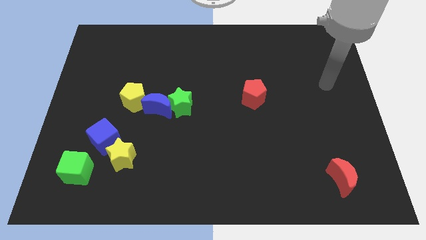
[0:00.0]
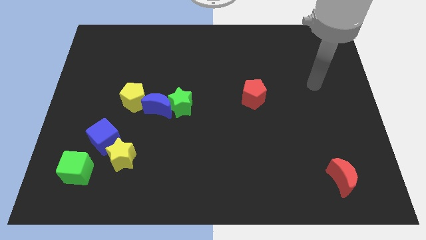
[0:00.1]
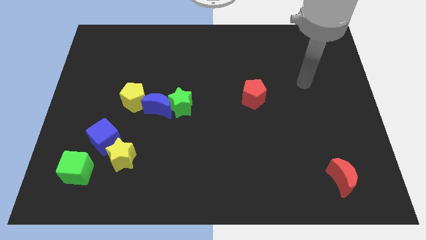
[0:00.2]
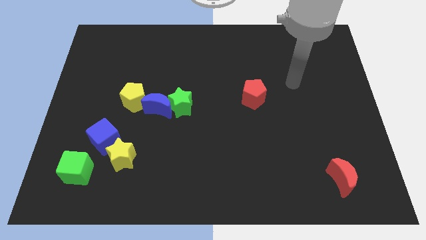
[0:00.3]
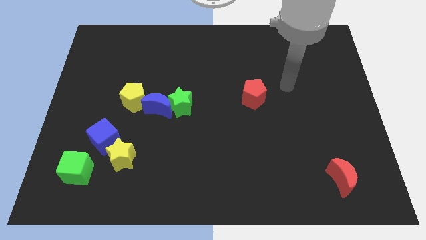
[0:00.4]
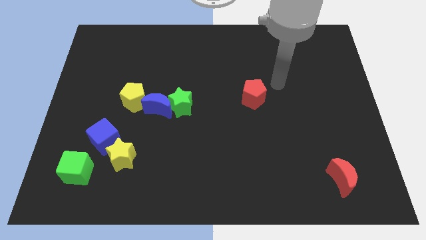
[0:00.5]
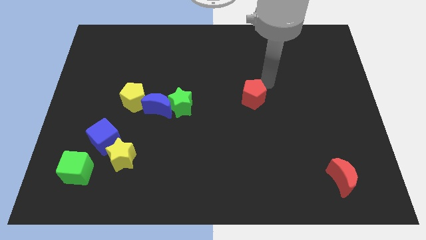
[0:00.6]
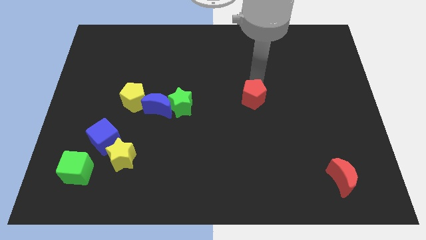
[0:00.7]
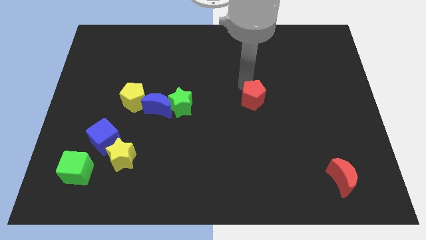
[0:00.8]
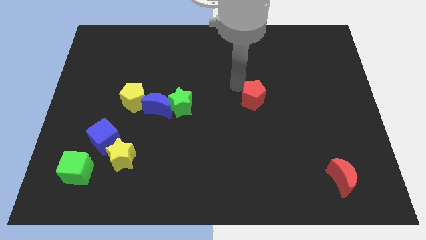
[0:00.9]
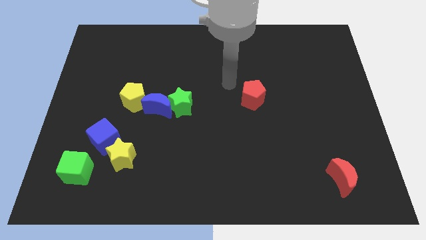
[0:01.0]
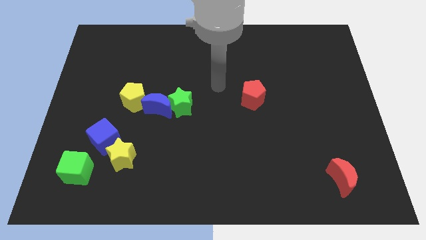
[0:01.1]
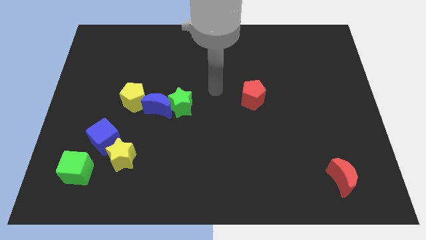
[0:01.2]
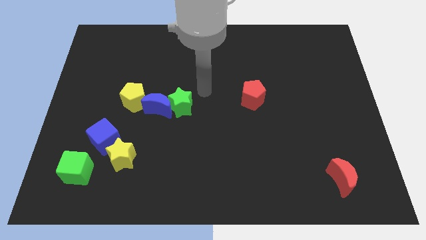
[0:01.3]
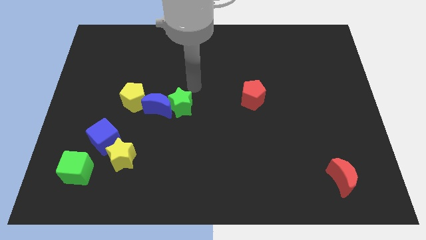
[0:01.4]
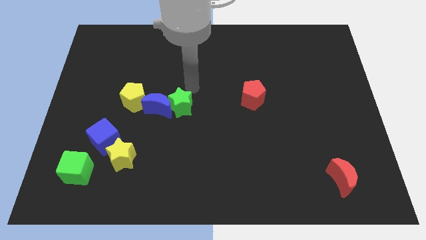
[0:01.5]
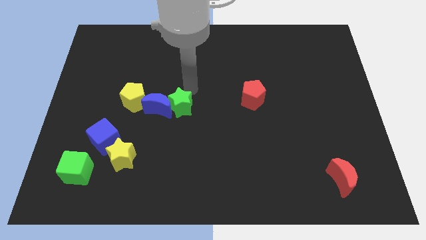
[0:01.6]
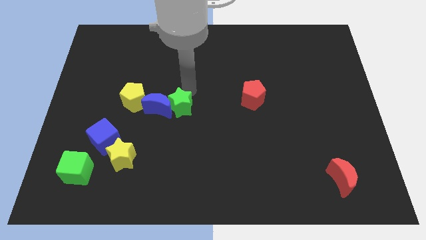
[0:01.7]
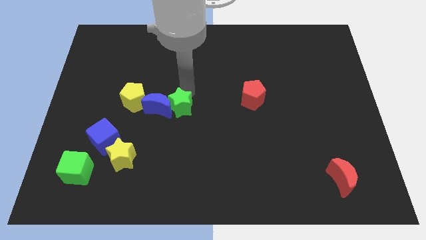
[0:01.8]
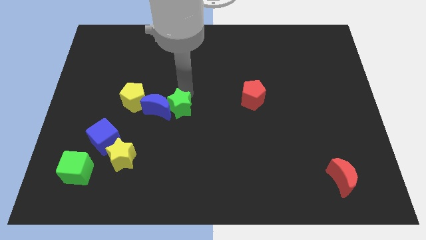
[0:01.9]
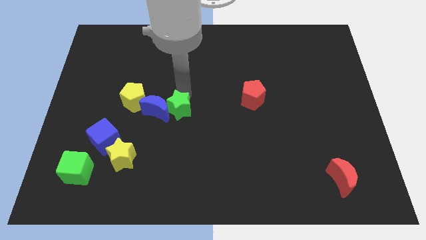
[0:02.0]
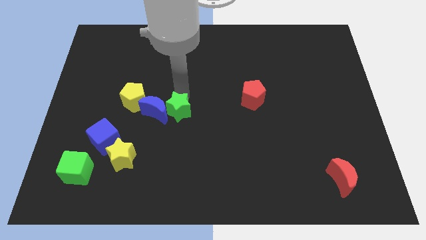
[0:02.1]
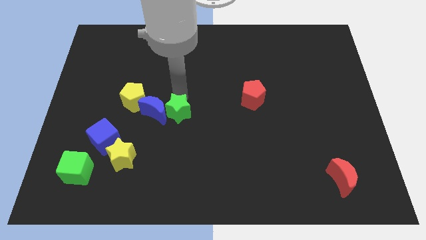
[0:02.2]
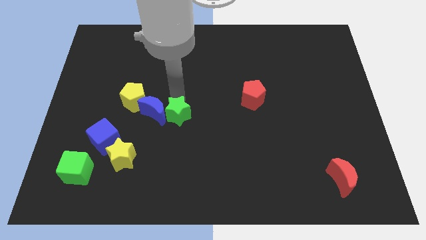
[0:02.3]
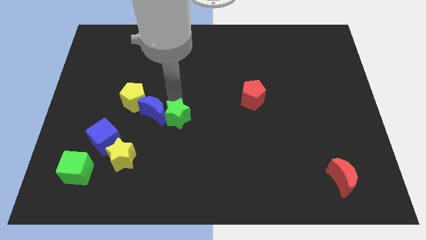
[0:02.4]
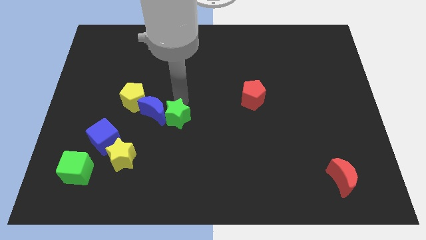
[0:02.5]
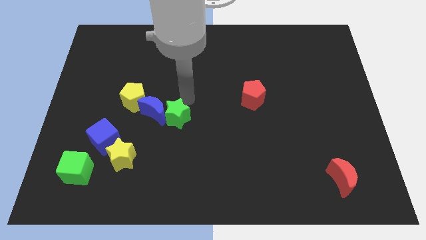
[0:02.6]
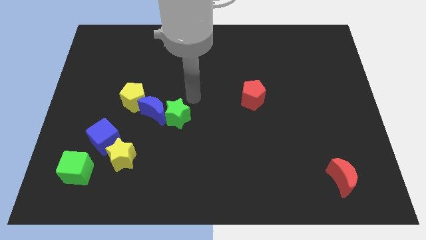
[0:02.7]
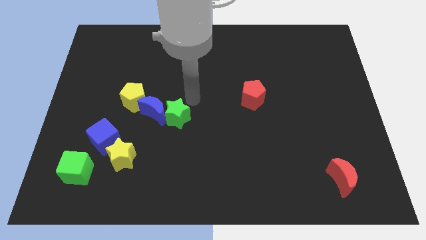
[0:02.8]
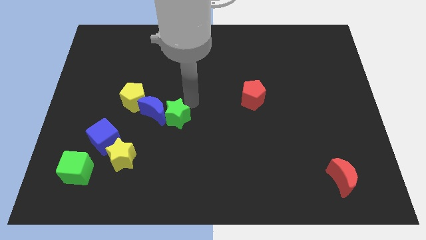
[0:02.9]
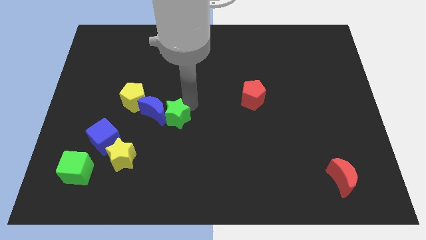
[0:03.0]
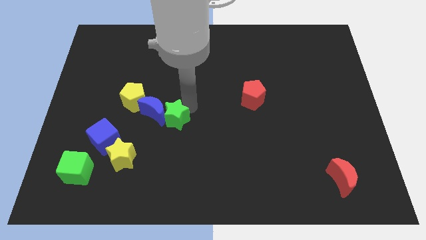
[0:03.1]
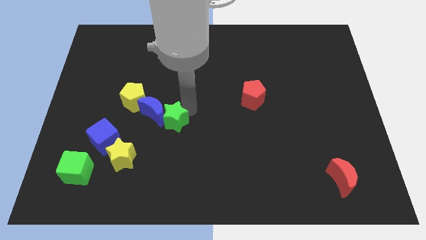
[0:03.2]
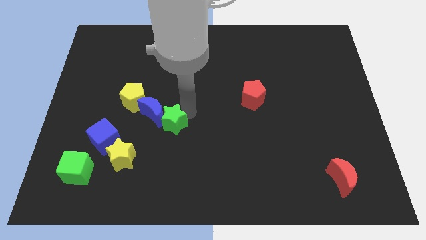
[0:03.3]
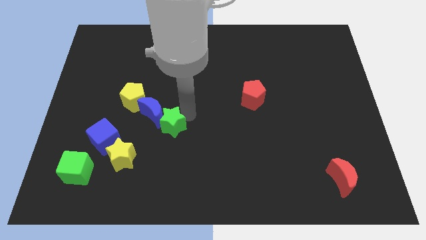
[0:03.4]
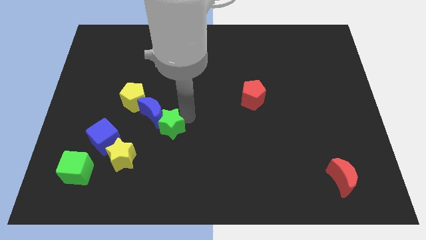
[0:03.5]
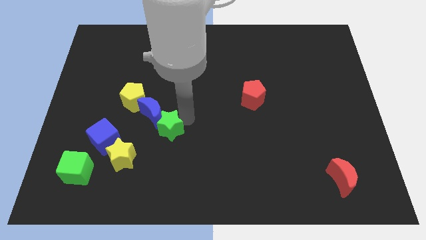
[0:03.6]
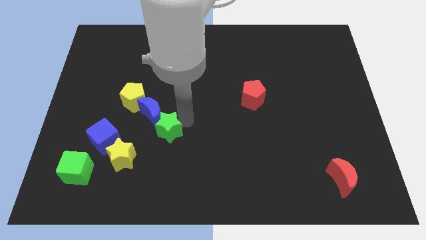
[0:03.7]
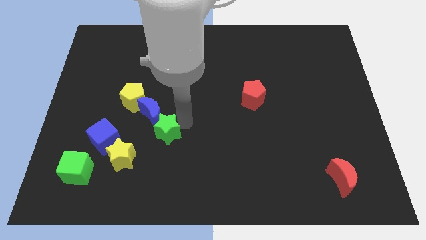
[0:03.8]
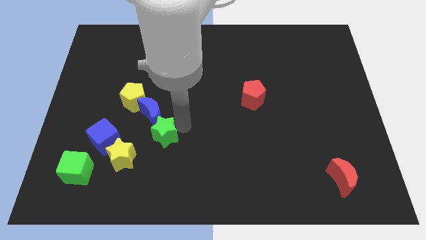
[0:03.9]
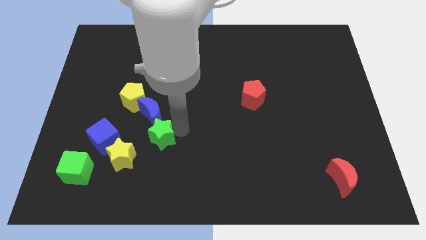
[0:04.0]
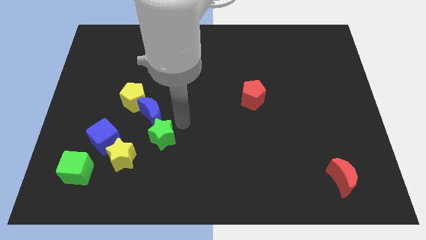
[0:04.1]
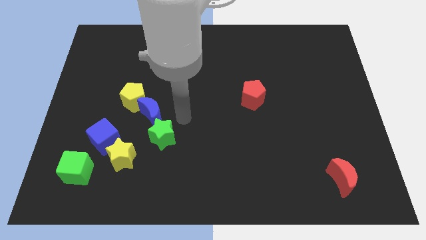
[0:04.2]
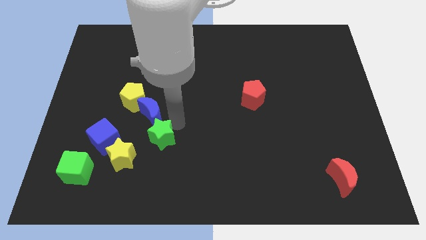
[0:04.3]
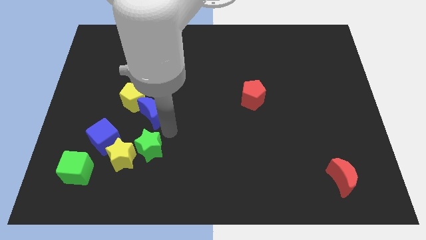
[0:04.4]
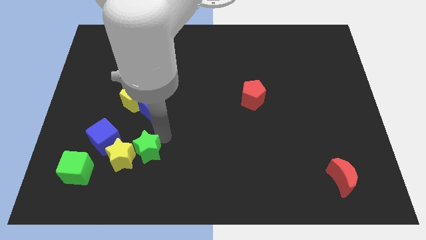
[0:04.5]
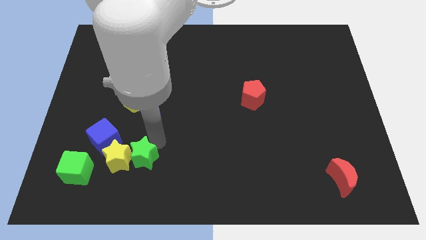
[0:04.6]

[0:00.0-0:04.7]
move the green star right of the green cube

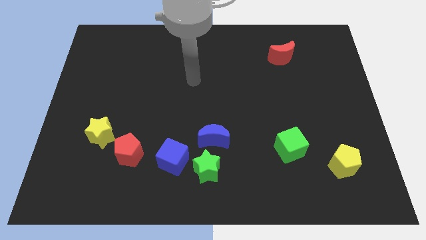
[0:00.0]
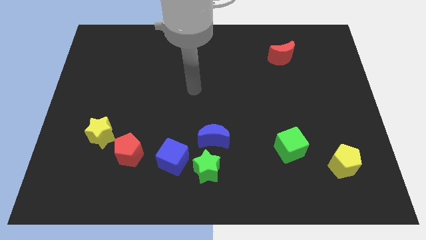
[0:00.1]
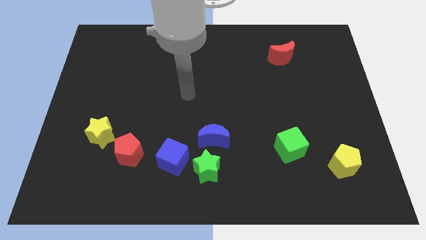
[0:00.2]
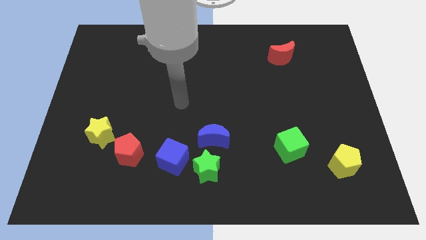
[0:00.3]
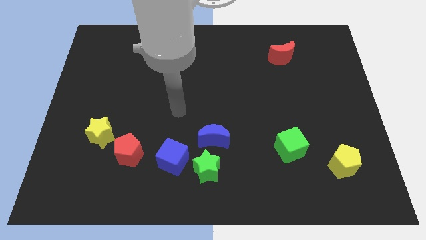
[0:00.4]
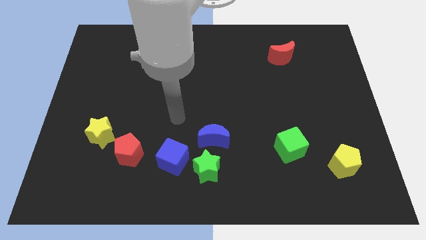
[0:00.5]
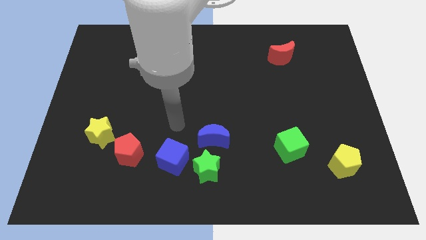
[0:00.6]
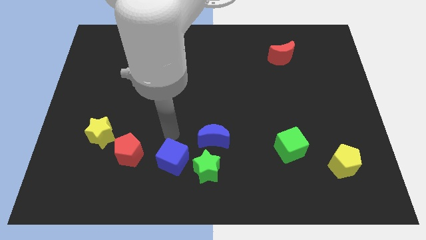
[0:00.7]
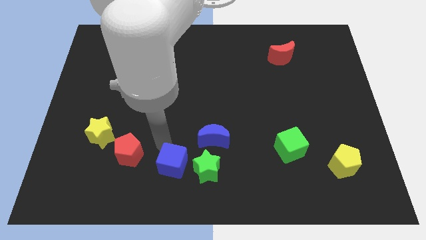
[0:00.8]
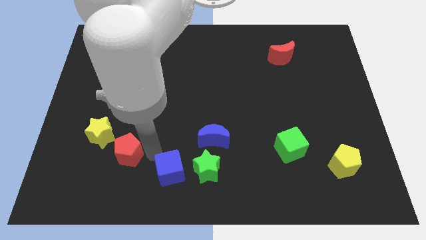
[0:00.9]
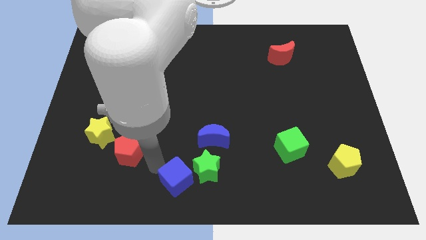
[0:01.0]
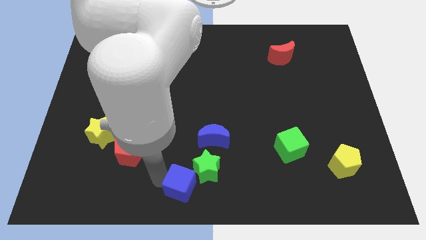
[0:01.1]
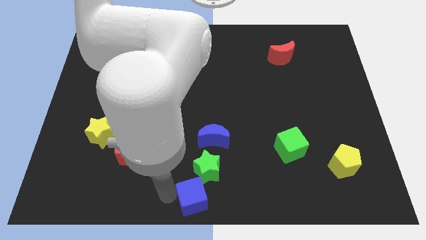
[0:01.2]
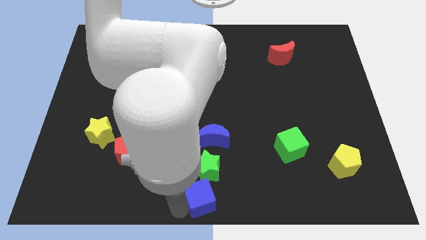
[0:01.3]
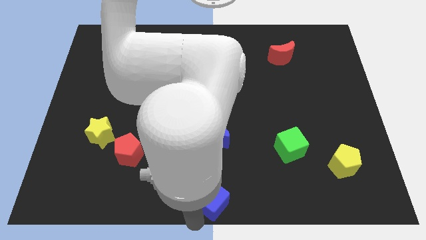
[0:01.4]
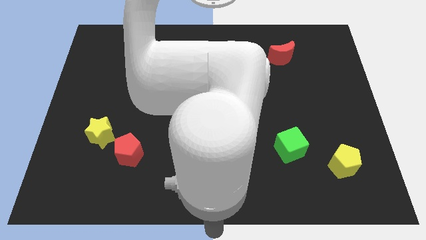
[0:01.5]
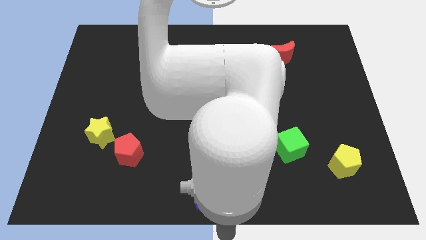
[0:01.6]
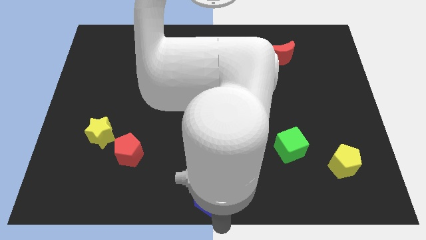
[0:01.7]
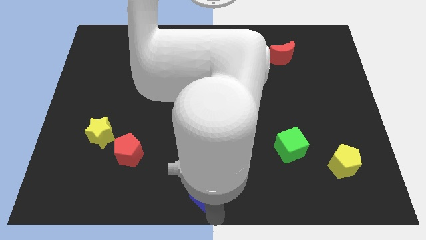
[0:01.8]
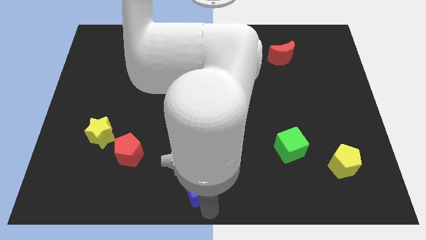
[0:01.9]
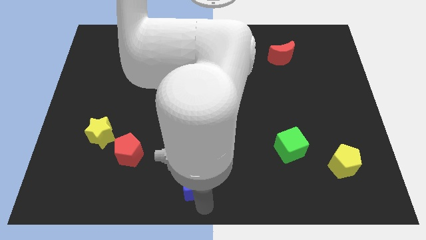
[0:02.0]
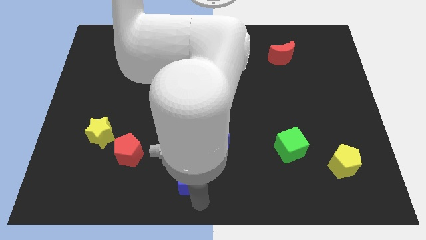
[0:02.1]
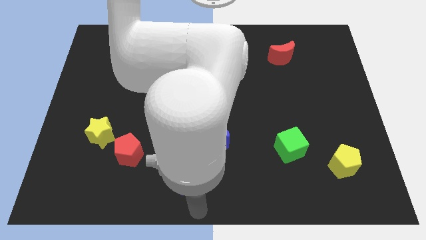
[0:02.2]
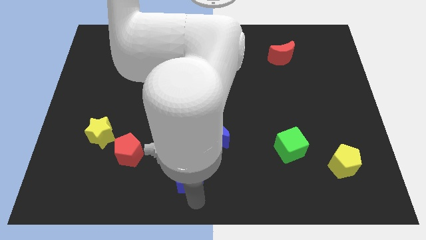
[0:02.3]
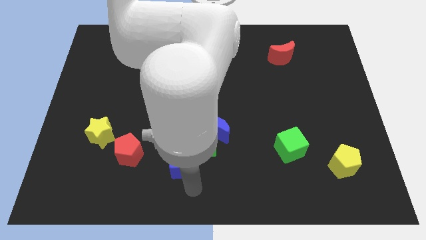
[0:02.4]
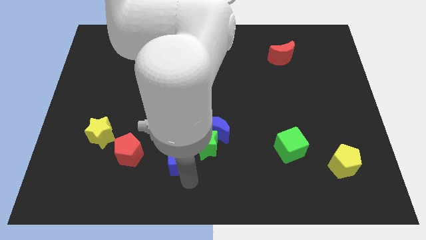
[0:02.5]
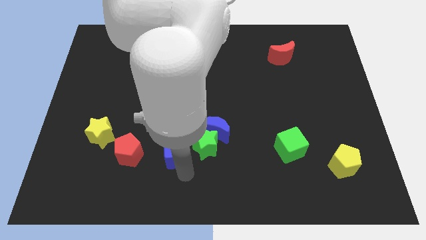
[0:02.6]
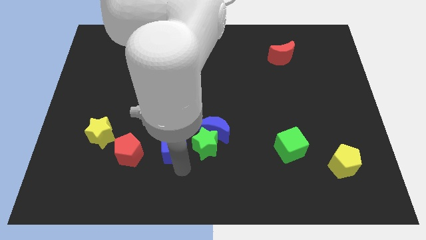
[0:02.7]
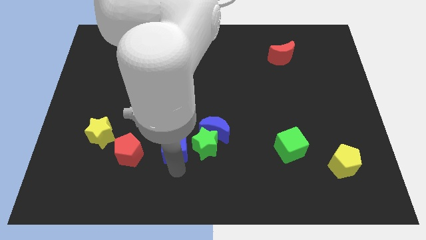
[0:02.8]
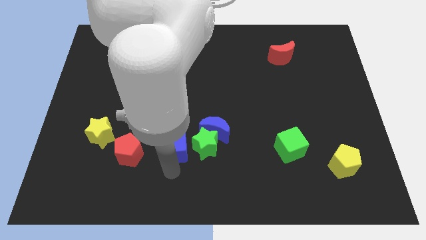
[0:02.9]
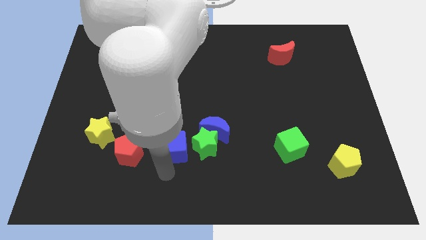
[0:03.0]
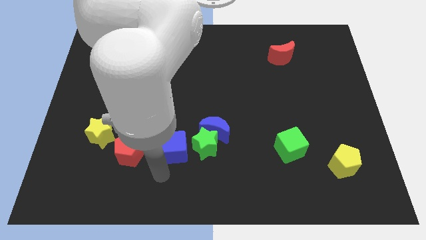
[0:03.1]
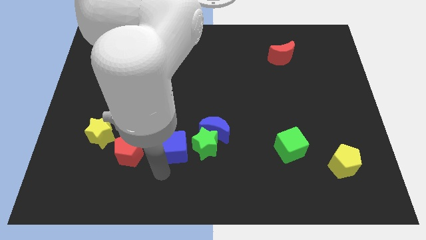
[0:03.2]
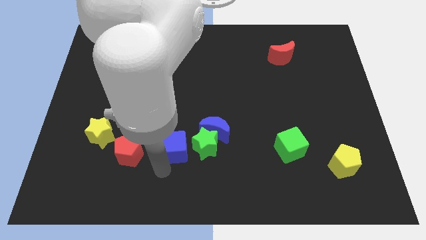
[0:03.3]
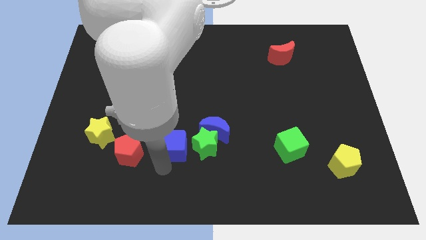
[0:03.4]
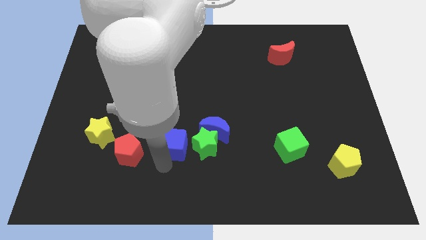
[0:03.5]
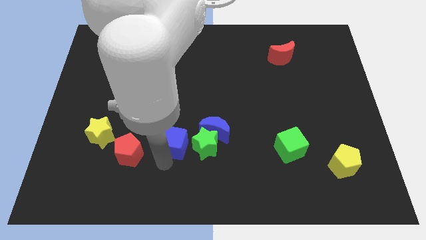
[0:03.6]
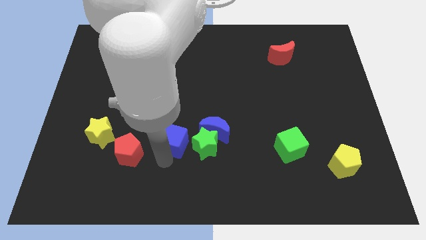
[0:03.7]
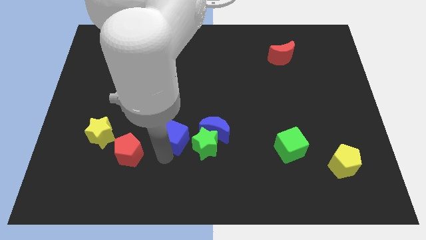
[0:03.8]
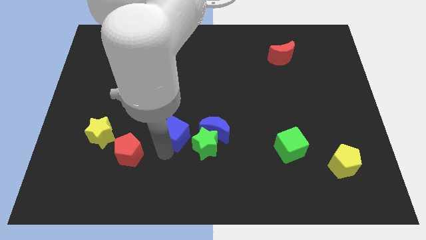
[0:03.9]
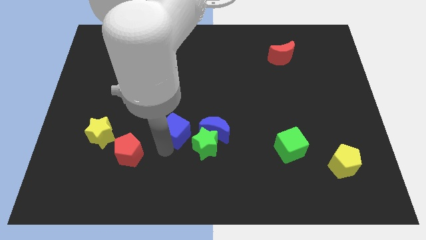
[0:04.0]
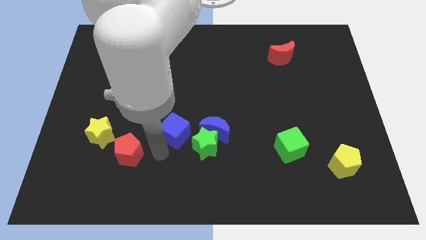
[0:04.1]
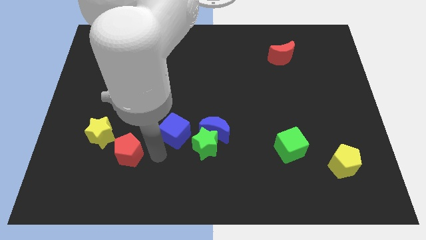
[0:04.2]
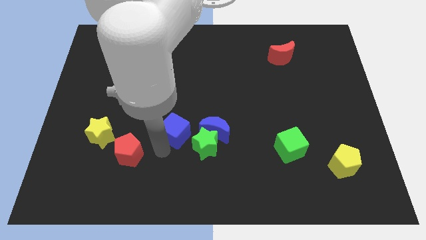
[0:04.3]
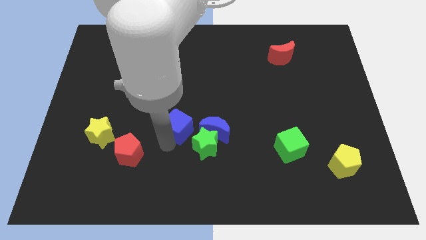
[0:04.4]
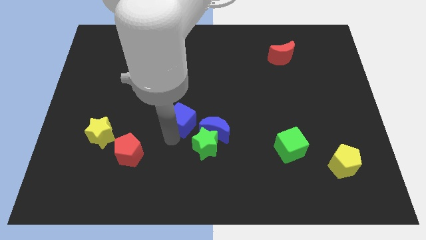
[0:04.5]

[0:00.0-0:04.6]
move the blue cube diagonally up and to the left of the blue moon
